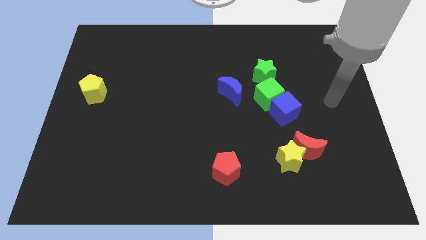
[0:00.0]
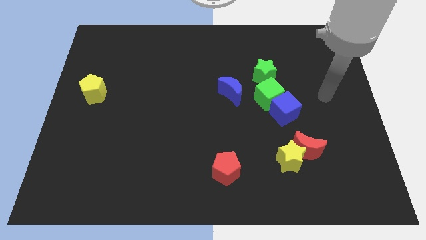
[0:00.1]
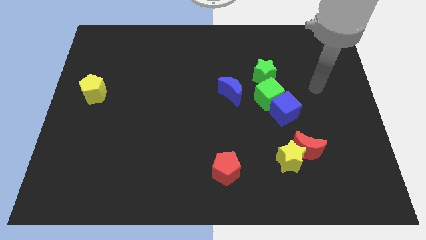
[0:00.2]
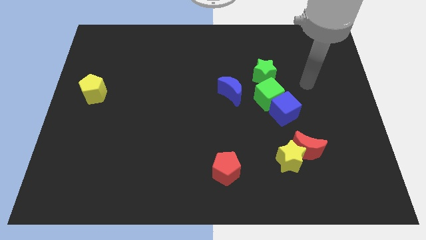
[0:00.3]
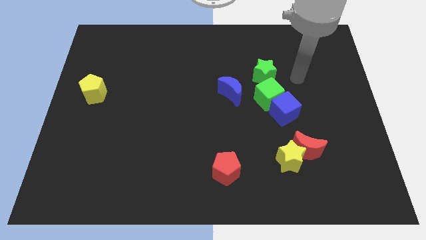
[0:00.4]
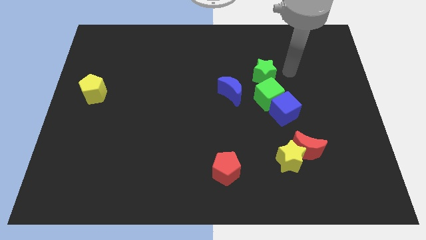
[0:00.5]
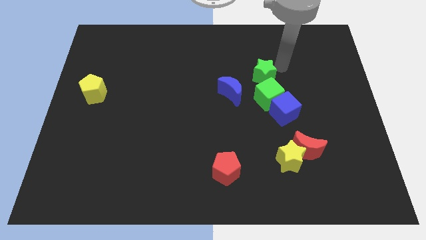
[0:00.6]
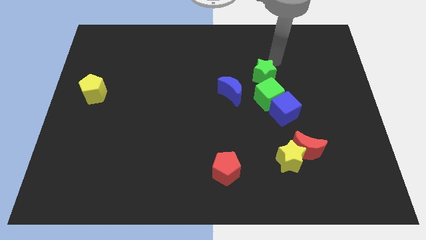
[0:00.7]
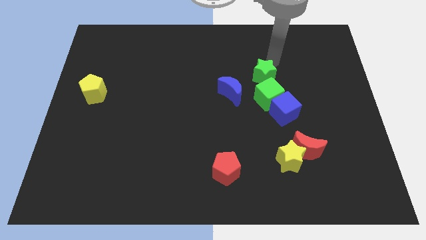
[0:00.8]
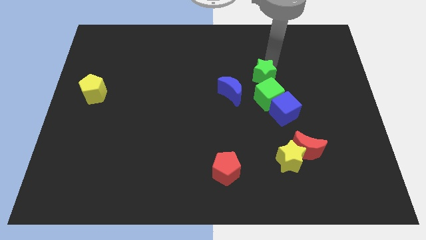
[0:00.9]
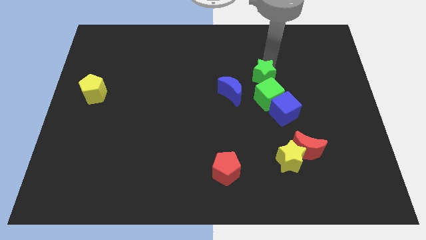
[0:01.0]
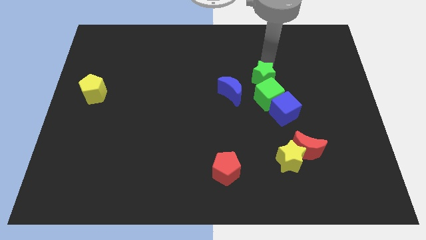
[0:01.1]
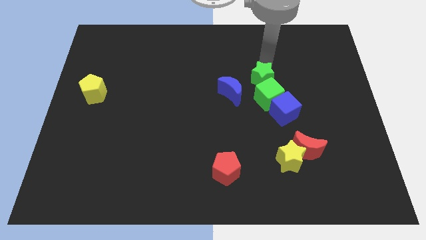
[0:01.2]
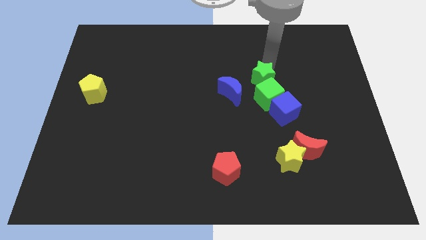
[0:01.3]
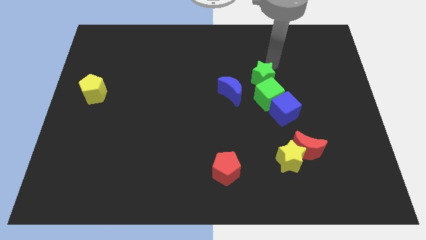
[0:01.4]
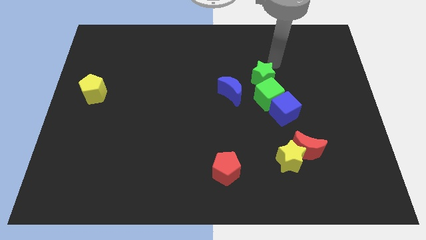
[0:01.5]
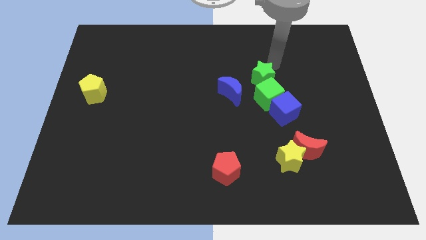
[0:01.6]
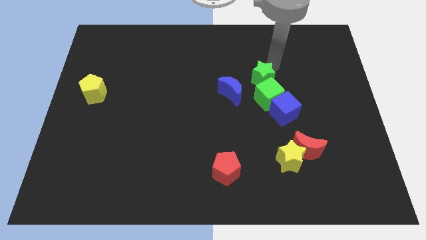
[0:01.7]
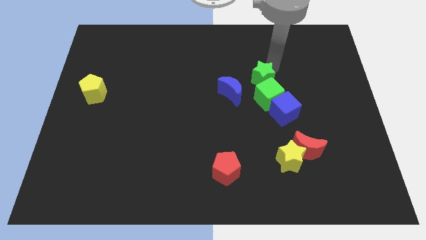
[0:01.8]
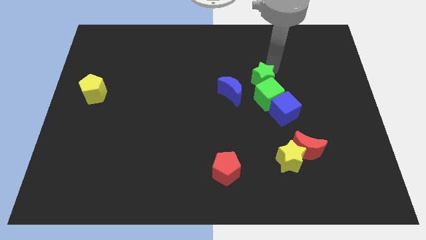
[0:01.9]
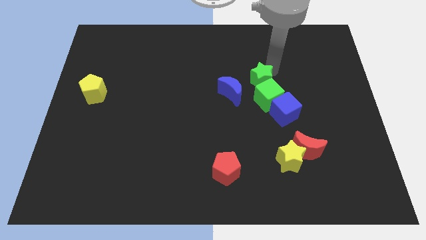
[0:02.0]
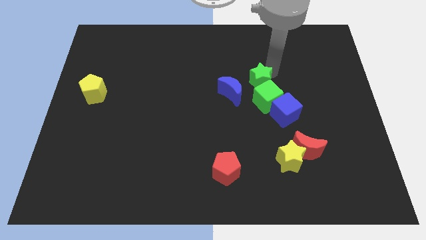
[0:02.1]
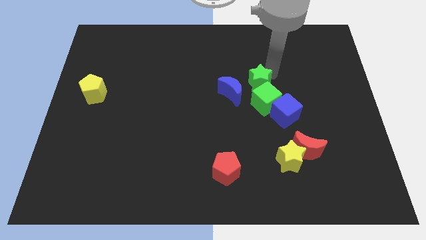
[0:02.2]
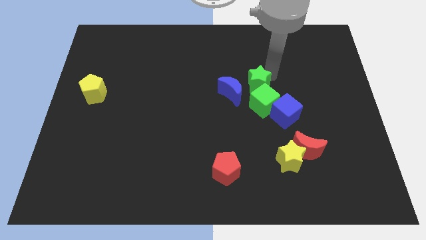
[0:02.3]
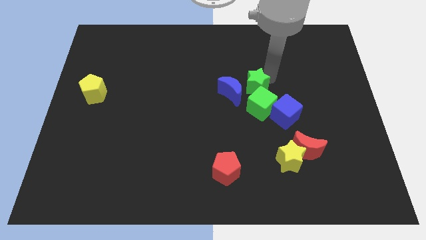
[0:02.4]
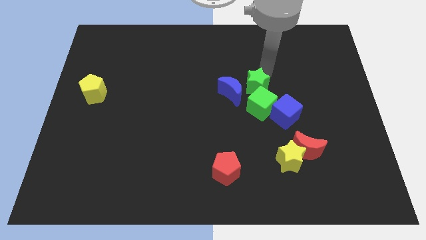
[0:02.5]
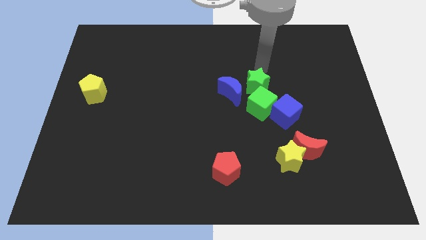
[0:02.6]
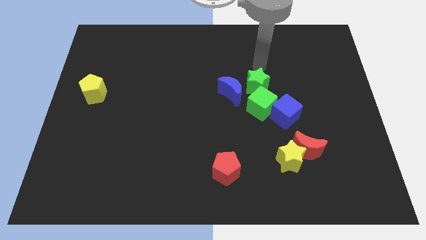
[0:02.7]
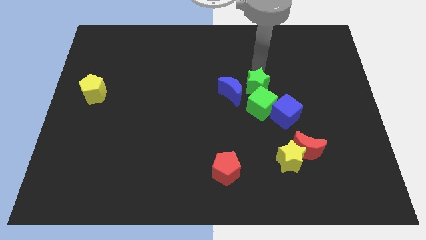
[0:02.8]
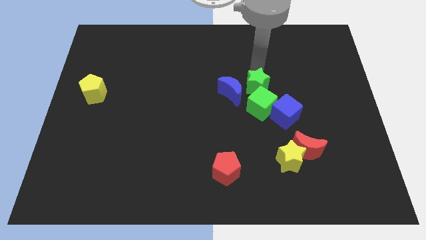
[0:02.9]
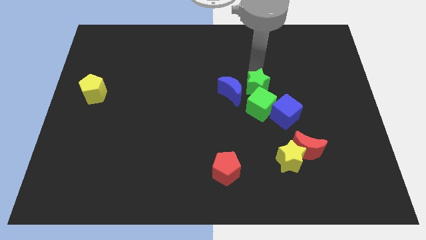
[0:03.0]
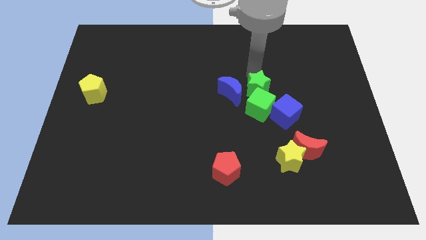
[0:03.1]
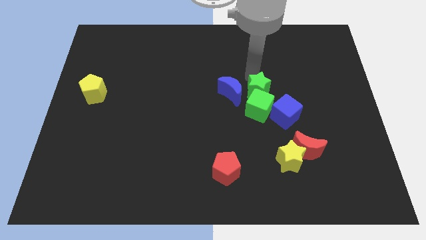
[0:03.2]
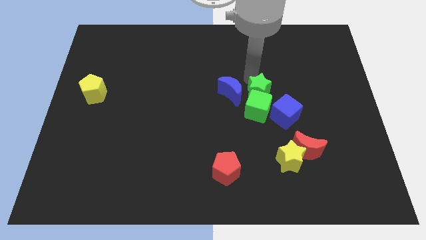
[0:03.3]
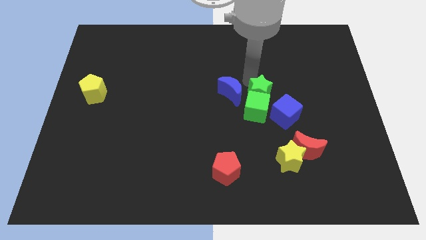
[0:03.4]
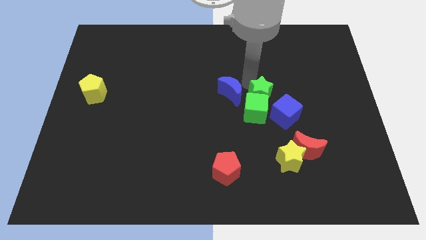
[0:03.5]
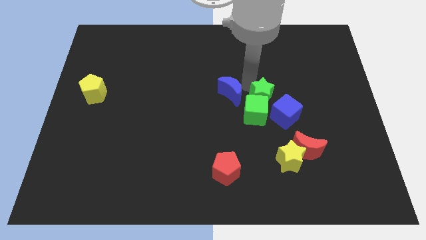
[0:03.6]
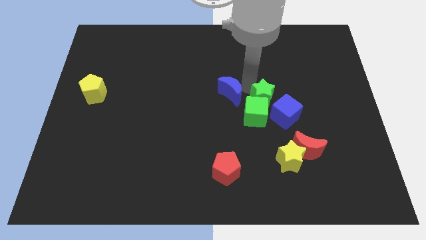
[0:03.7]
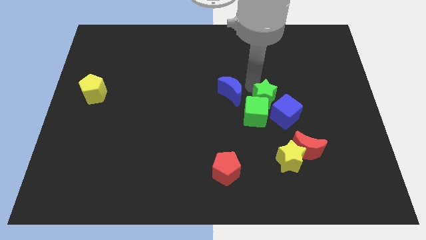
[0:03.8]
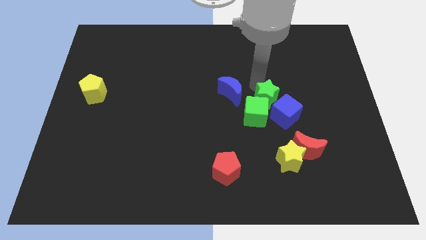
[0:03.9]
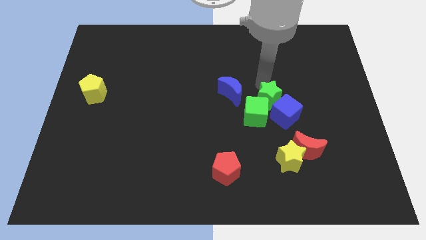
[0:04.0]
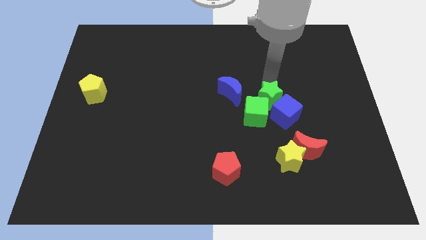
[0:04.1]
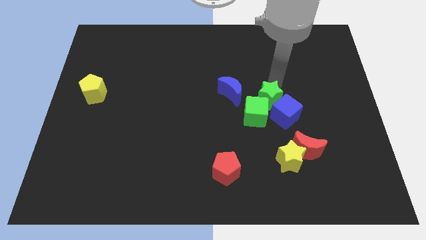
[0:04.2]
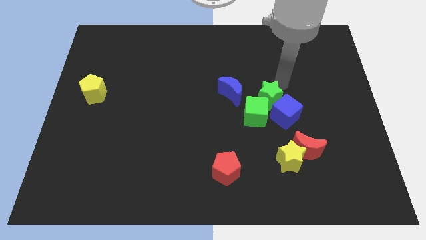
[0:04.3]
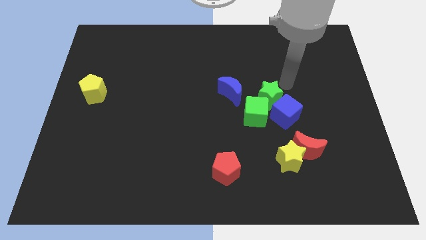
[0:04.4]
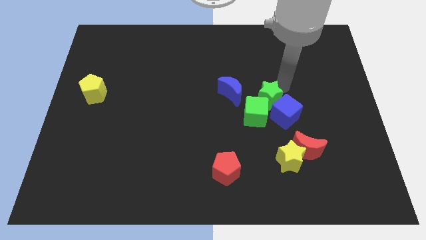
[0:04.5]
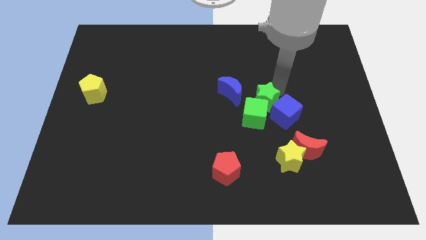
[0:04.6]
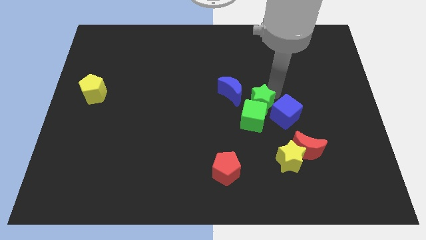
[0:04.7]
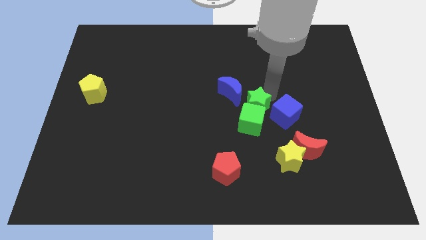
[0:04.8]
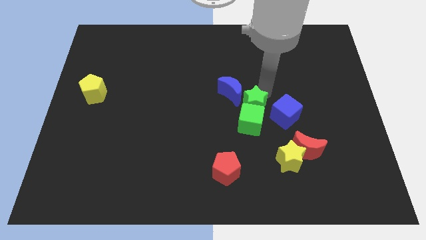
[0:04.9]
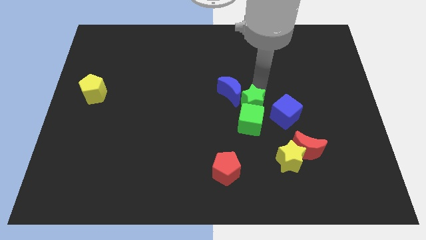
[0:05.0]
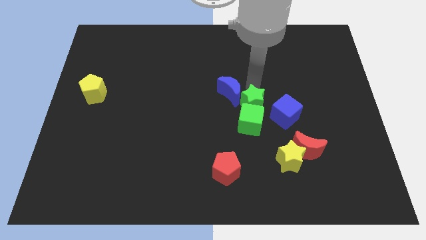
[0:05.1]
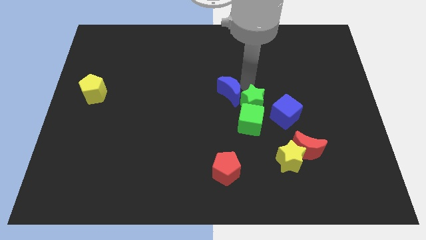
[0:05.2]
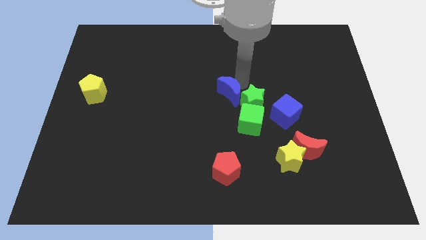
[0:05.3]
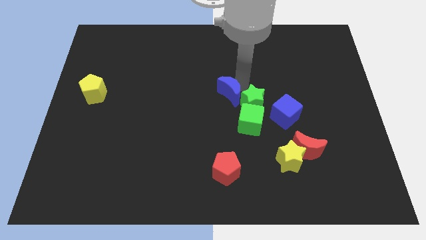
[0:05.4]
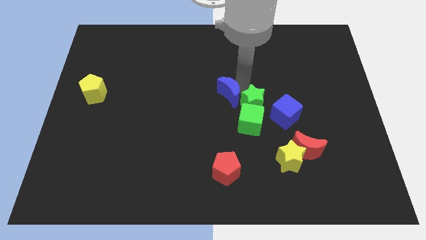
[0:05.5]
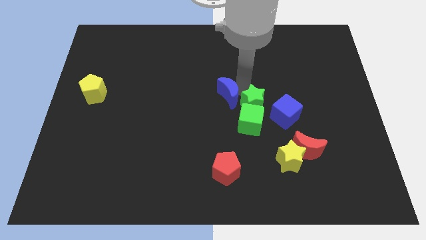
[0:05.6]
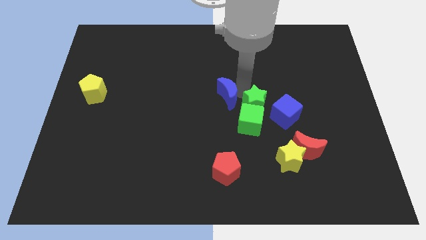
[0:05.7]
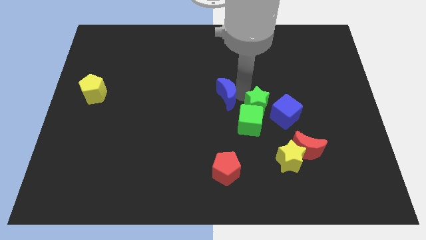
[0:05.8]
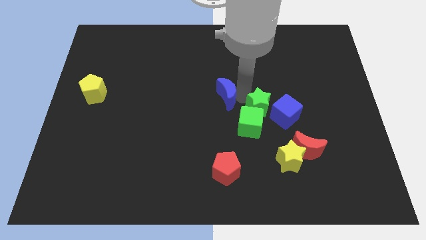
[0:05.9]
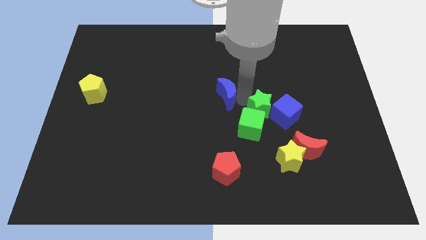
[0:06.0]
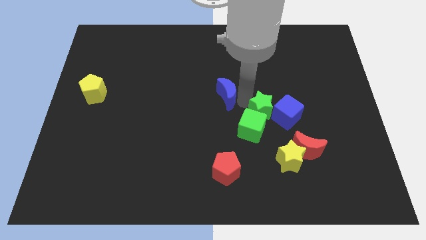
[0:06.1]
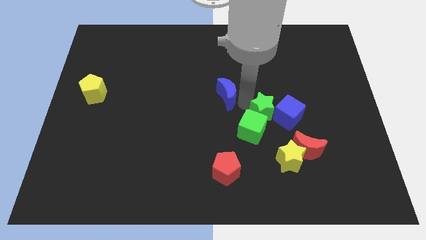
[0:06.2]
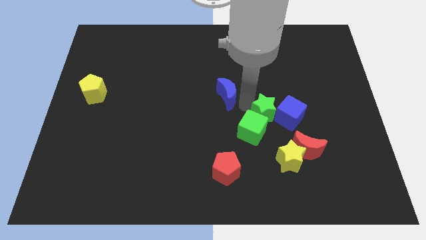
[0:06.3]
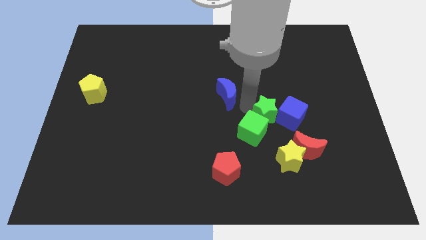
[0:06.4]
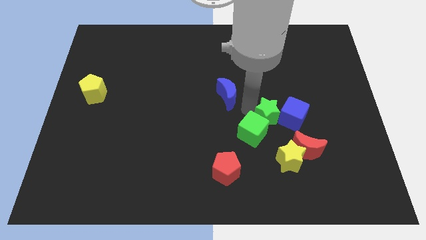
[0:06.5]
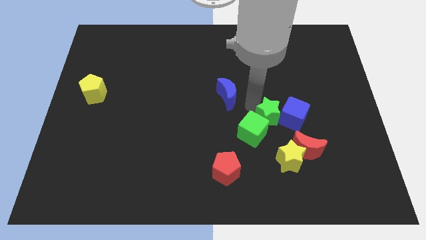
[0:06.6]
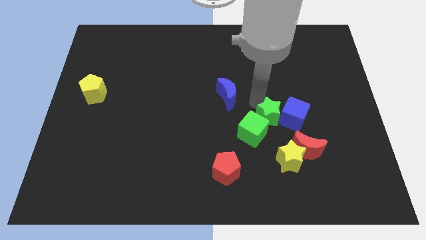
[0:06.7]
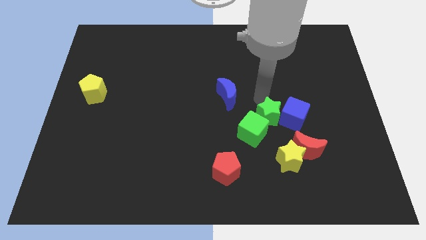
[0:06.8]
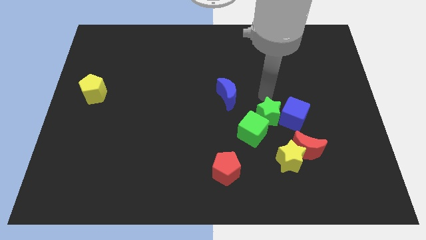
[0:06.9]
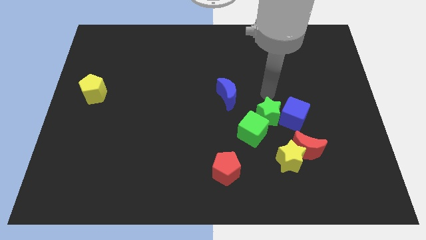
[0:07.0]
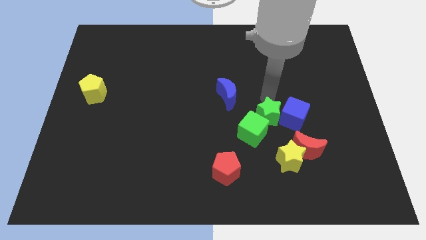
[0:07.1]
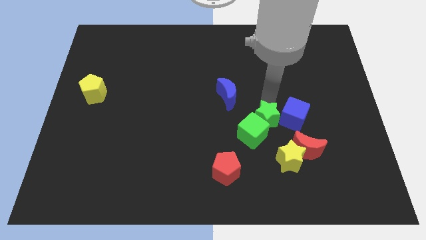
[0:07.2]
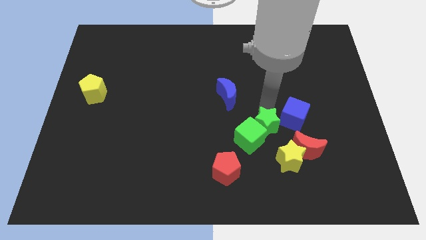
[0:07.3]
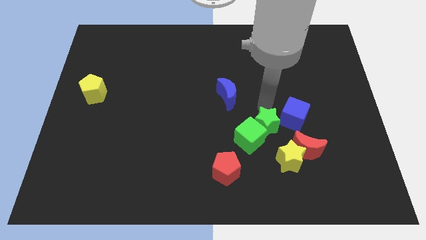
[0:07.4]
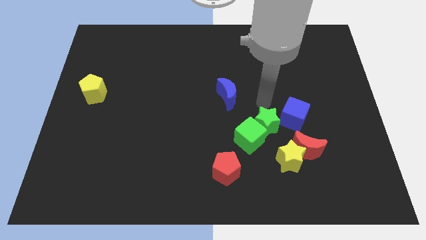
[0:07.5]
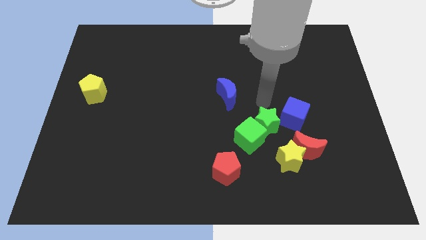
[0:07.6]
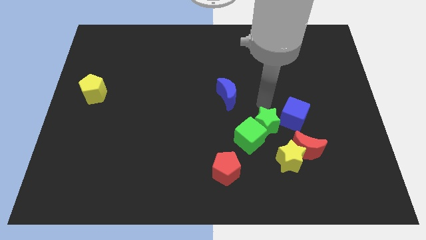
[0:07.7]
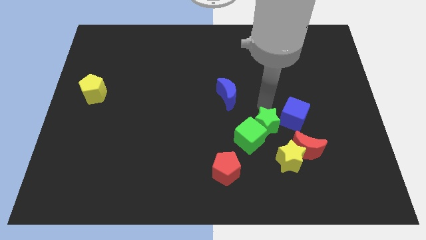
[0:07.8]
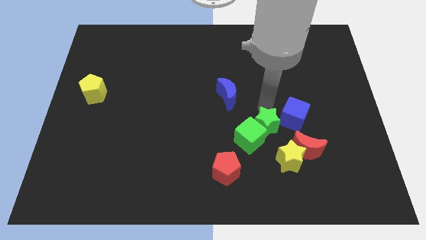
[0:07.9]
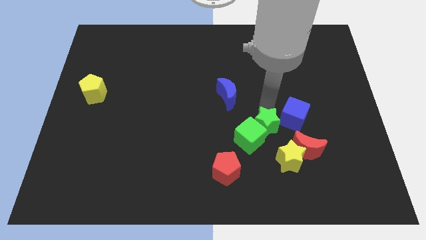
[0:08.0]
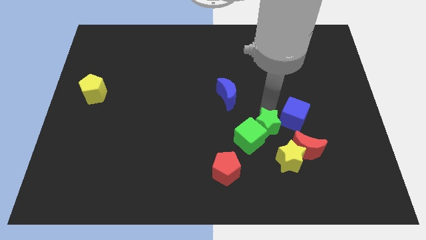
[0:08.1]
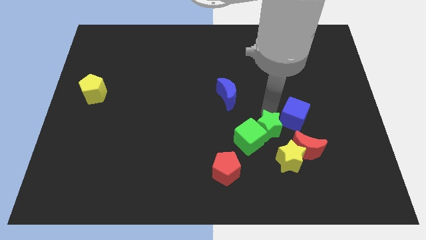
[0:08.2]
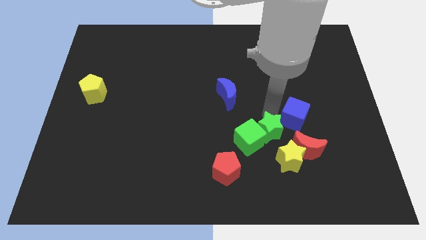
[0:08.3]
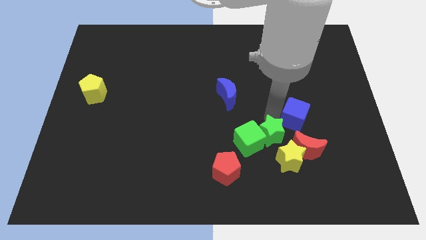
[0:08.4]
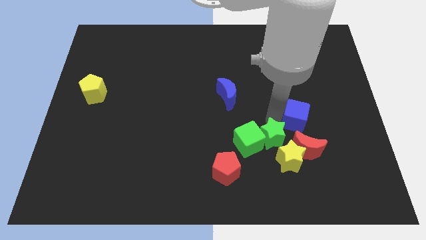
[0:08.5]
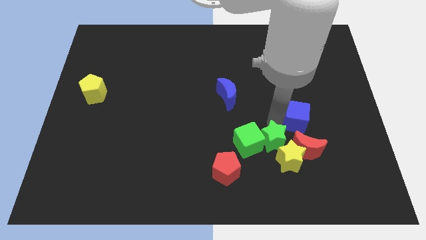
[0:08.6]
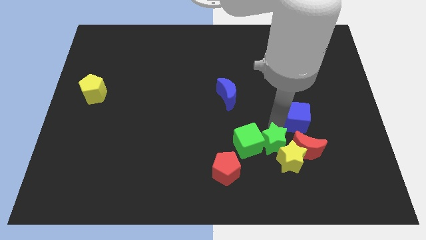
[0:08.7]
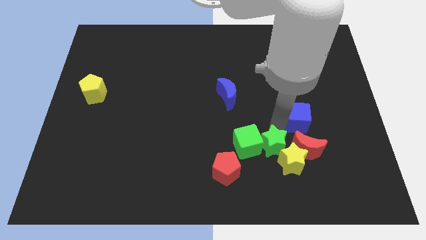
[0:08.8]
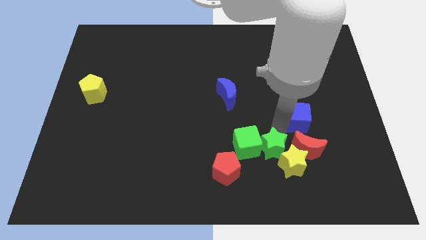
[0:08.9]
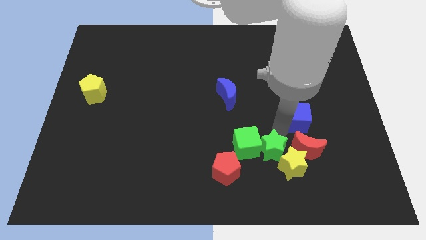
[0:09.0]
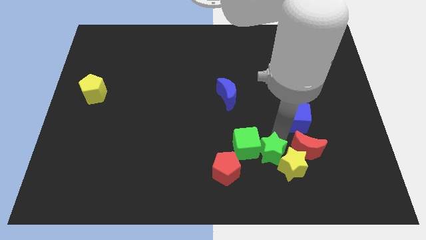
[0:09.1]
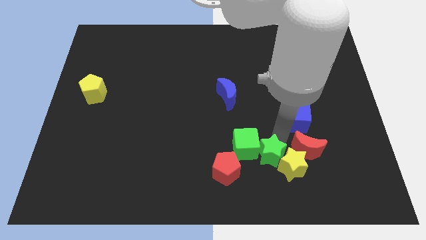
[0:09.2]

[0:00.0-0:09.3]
push the green star to the bottom left side of the red moon
